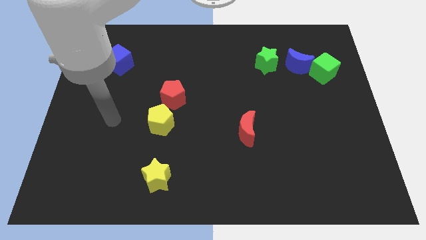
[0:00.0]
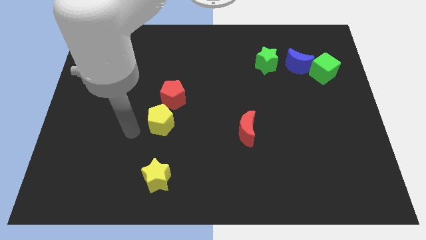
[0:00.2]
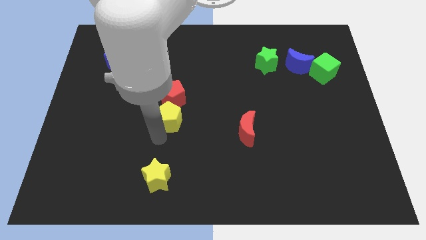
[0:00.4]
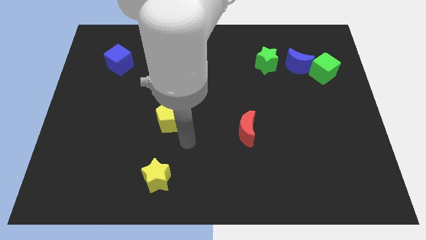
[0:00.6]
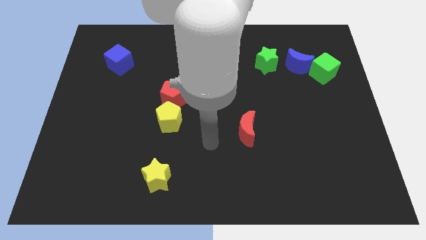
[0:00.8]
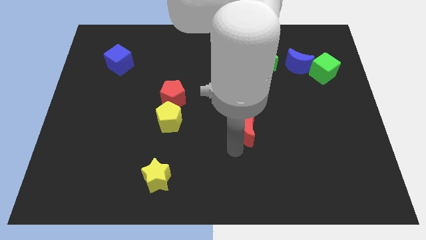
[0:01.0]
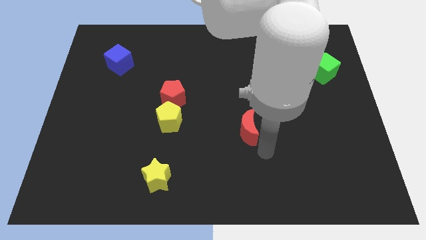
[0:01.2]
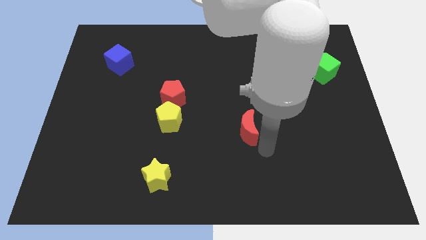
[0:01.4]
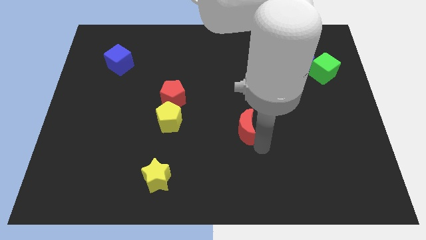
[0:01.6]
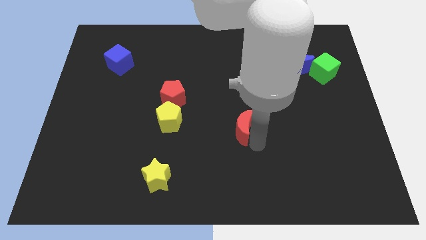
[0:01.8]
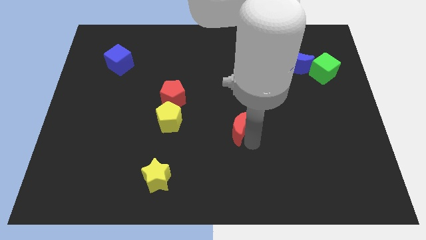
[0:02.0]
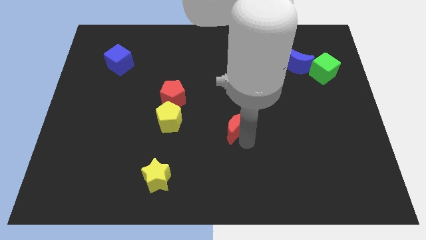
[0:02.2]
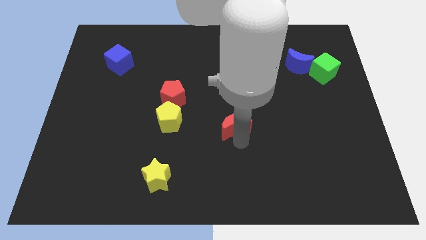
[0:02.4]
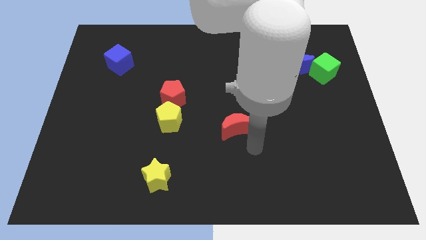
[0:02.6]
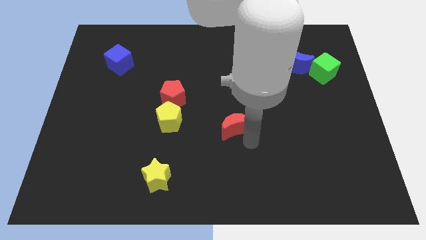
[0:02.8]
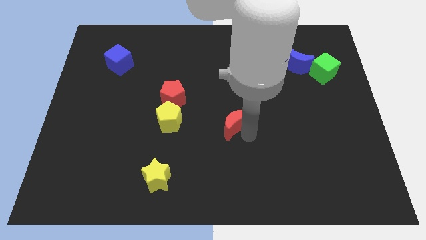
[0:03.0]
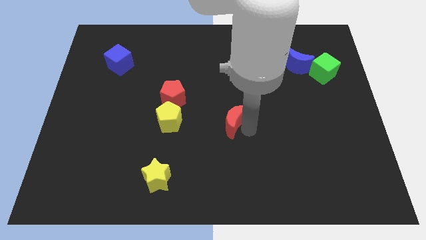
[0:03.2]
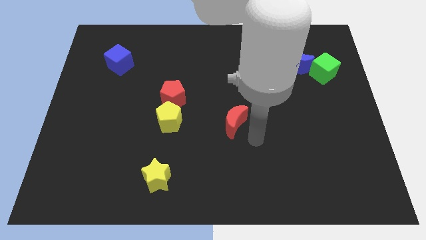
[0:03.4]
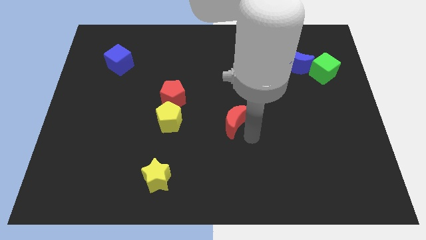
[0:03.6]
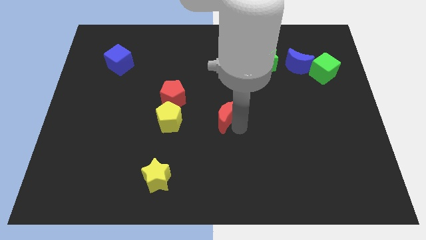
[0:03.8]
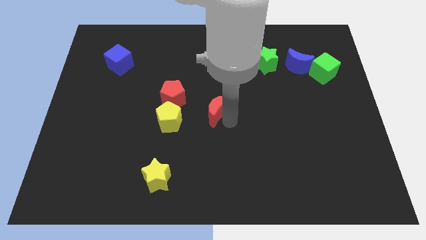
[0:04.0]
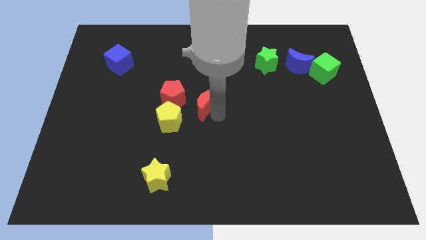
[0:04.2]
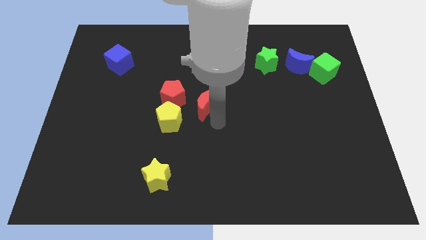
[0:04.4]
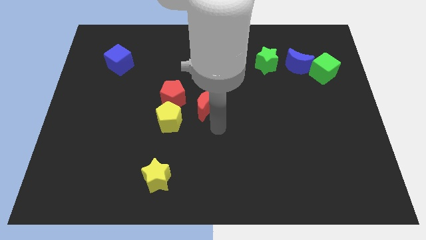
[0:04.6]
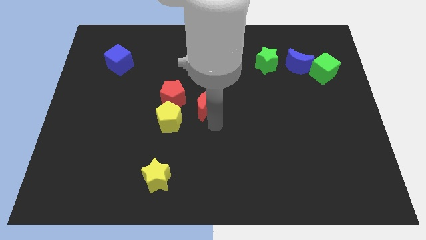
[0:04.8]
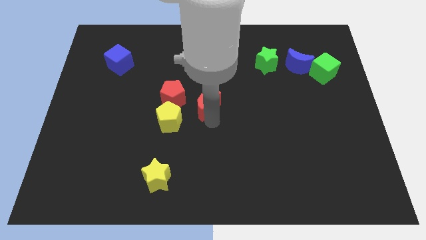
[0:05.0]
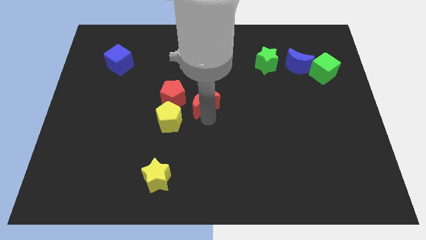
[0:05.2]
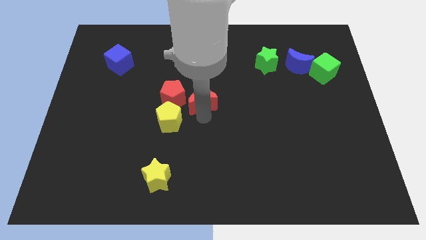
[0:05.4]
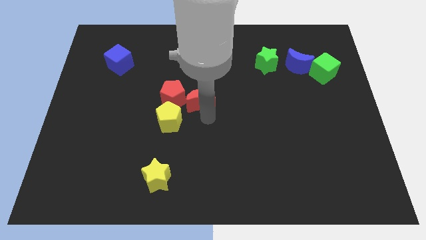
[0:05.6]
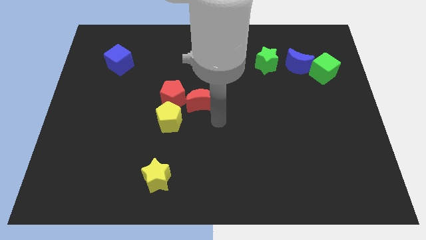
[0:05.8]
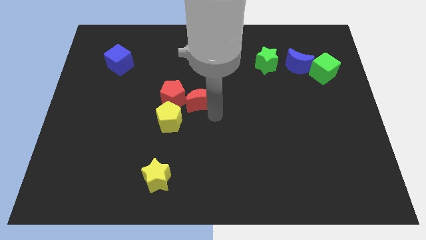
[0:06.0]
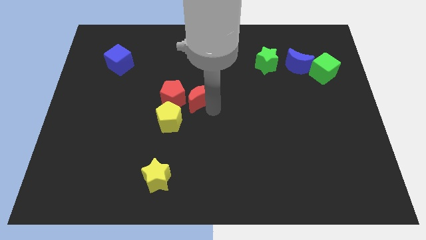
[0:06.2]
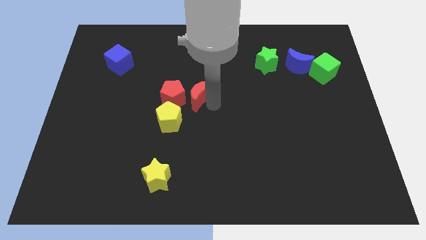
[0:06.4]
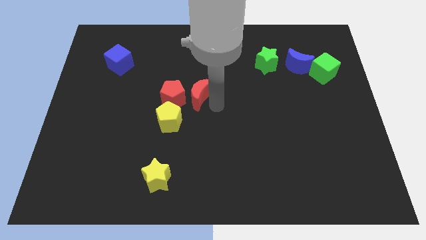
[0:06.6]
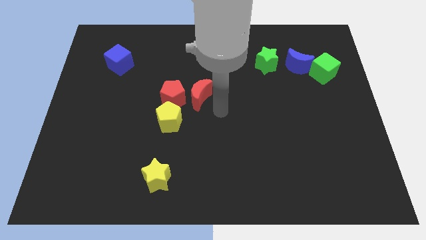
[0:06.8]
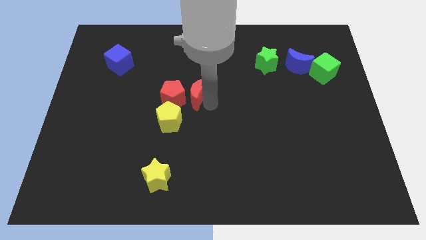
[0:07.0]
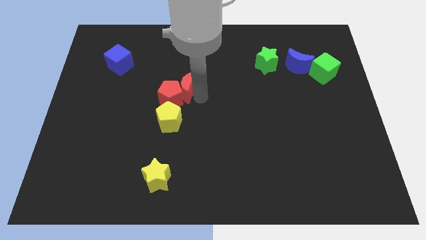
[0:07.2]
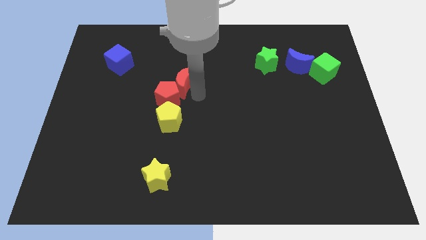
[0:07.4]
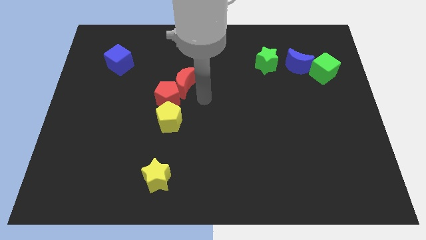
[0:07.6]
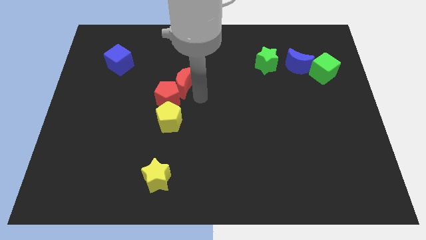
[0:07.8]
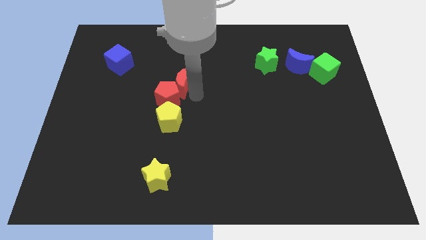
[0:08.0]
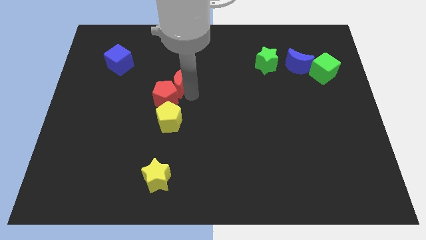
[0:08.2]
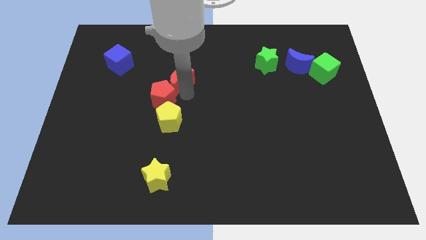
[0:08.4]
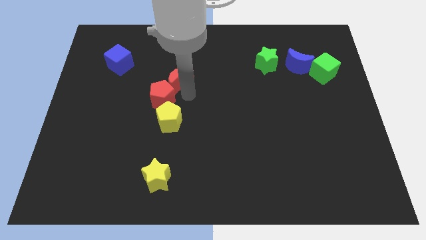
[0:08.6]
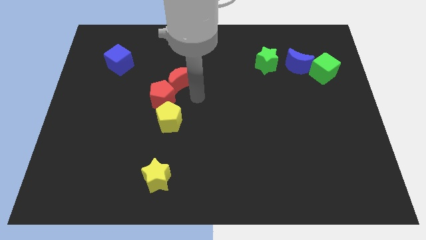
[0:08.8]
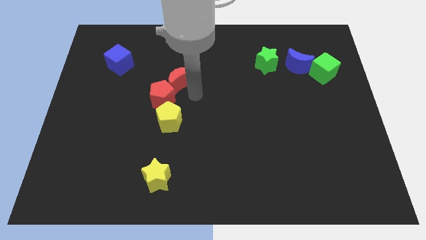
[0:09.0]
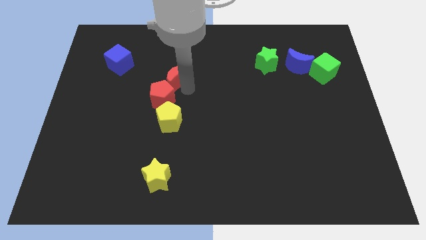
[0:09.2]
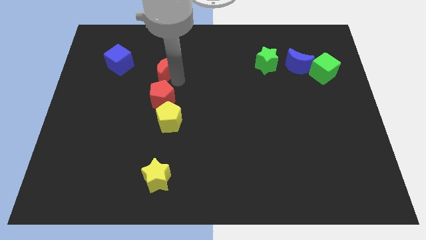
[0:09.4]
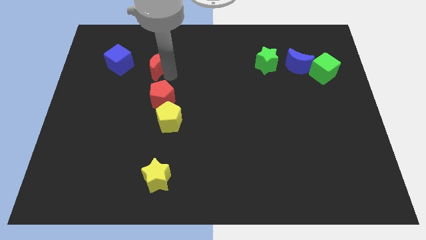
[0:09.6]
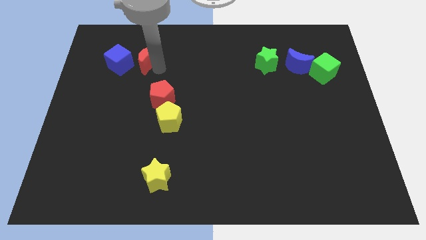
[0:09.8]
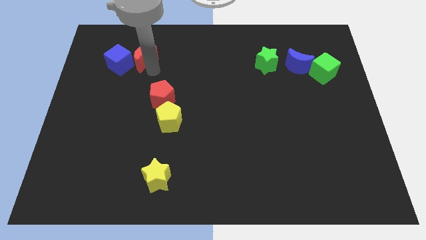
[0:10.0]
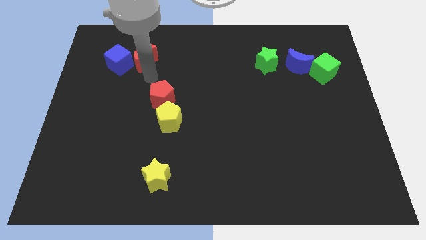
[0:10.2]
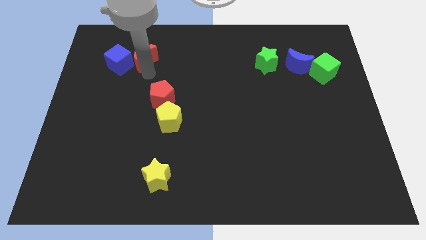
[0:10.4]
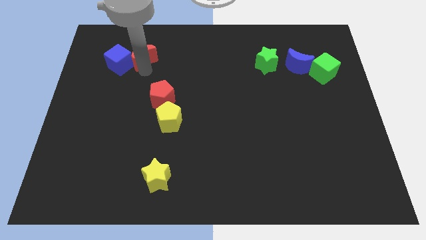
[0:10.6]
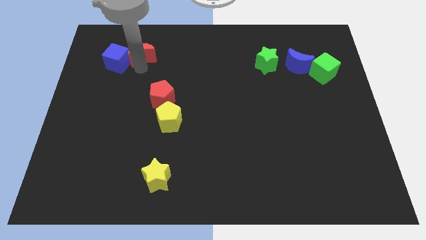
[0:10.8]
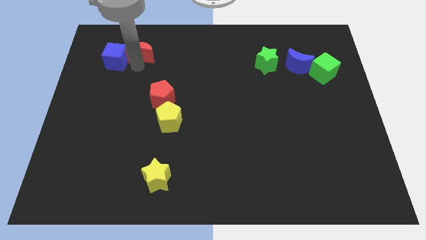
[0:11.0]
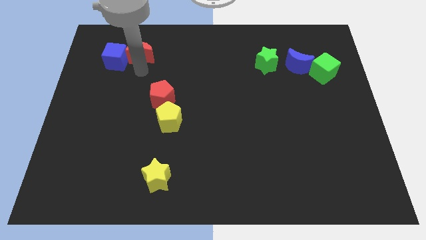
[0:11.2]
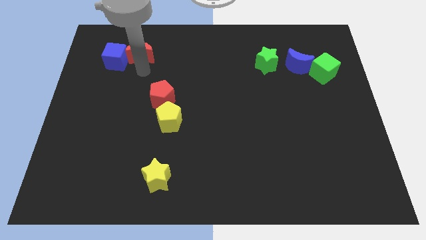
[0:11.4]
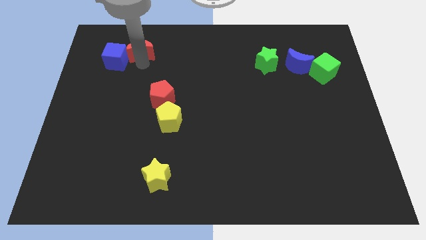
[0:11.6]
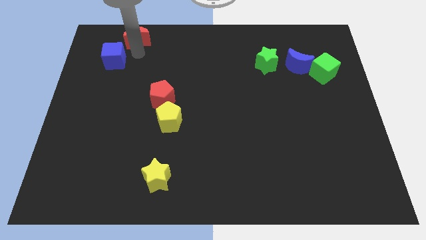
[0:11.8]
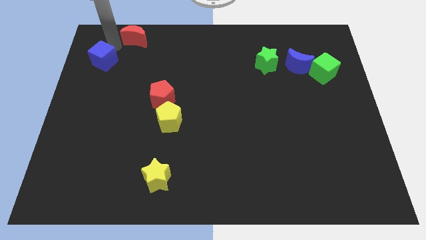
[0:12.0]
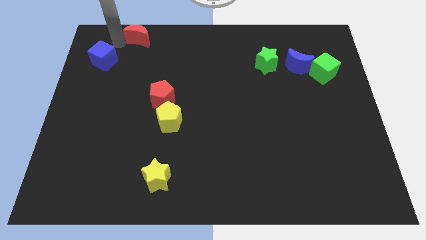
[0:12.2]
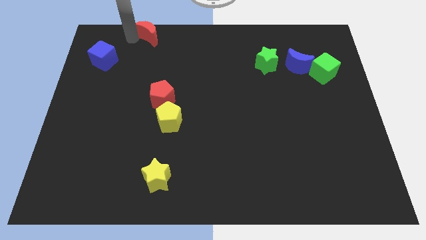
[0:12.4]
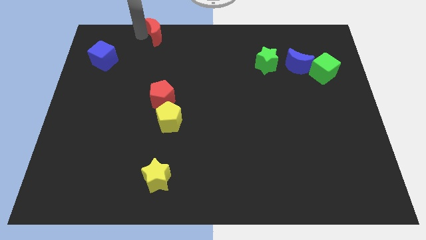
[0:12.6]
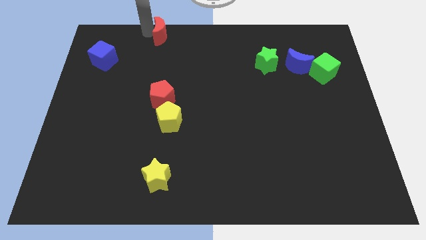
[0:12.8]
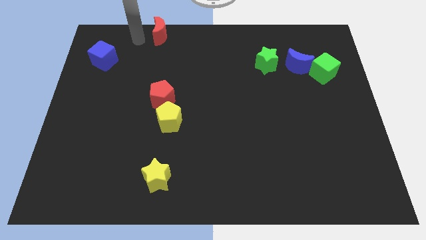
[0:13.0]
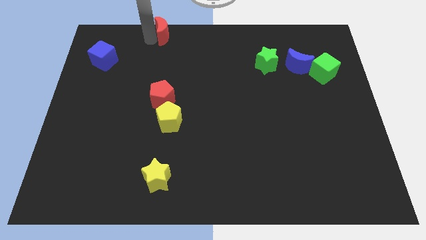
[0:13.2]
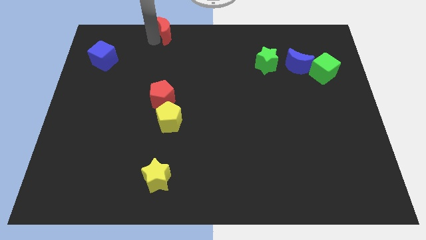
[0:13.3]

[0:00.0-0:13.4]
push the red moon to the top side

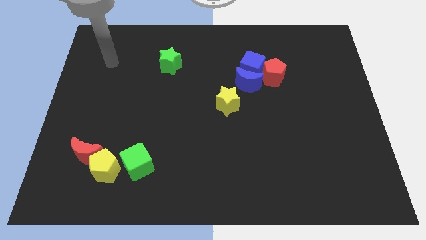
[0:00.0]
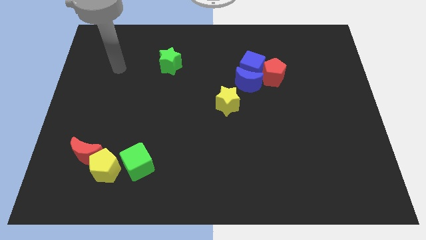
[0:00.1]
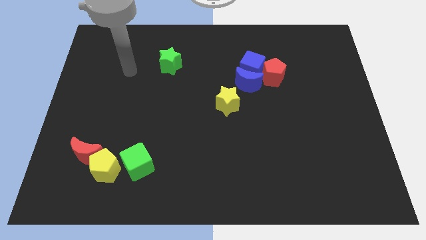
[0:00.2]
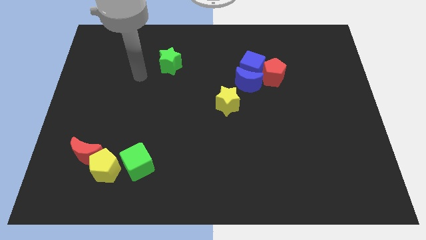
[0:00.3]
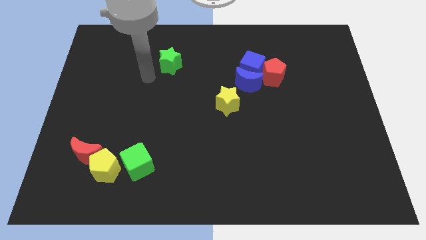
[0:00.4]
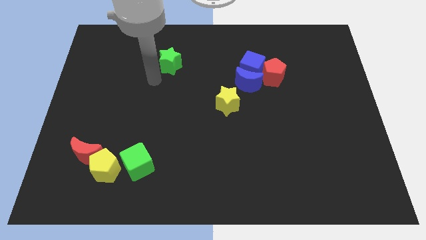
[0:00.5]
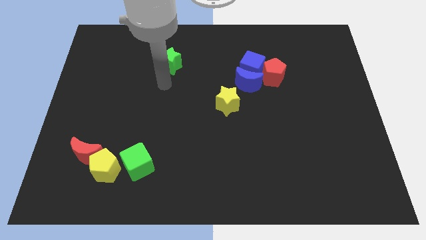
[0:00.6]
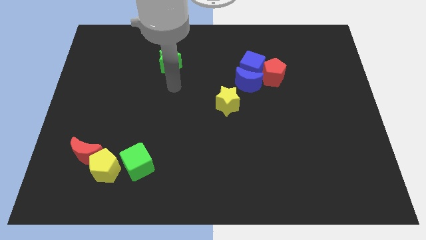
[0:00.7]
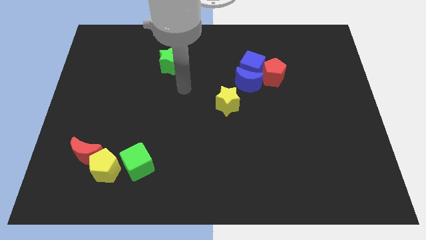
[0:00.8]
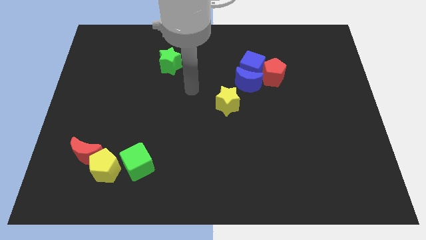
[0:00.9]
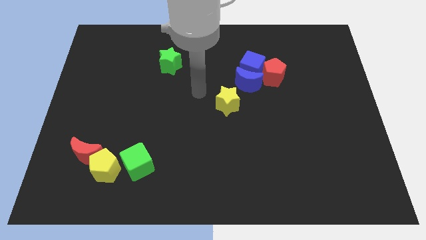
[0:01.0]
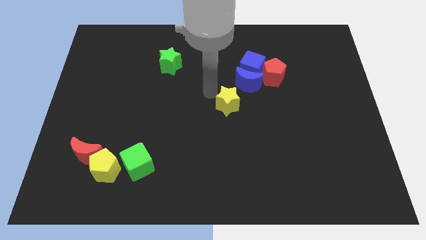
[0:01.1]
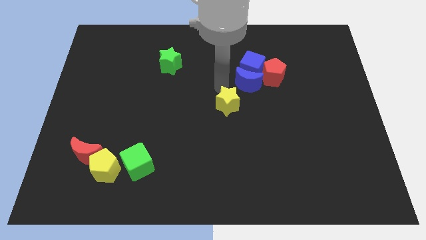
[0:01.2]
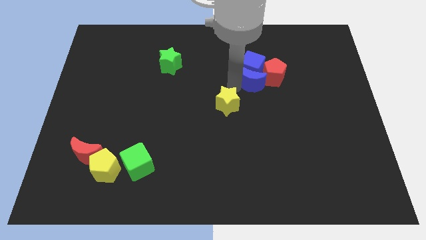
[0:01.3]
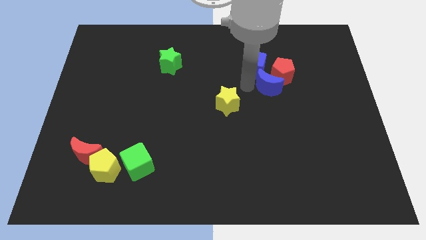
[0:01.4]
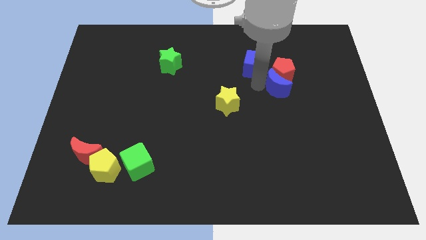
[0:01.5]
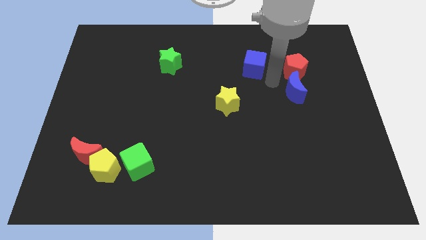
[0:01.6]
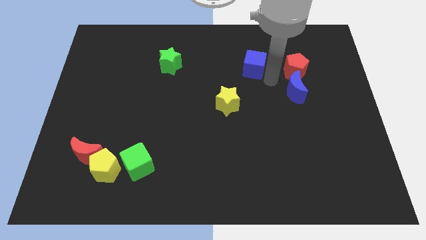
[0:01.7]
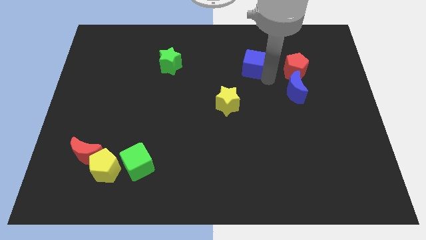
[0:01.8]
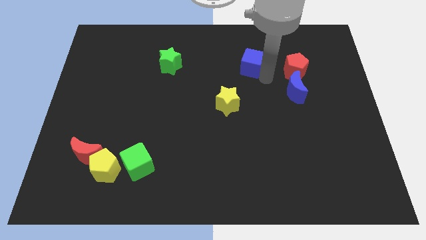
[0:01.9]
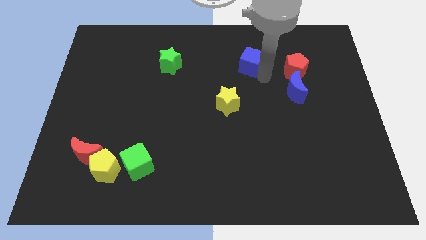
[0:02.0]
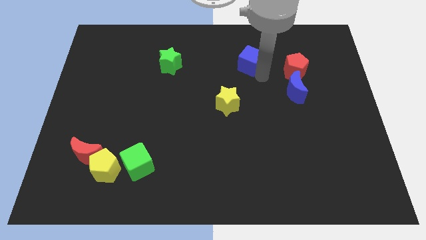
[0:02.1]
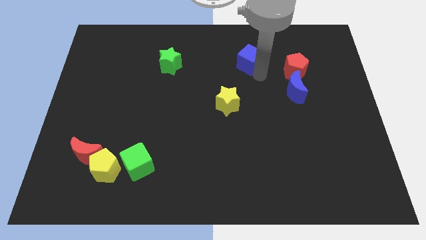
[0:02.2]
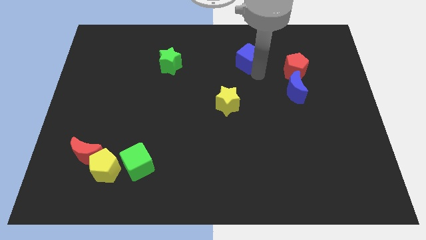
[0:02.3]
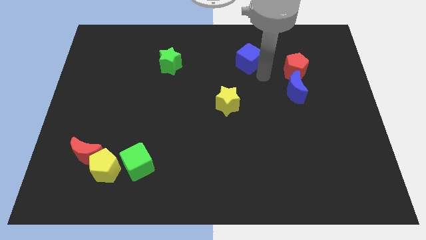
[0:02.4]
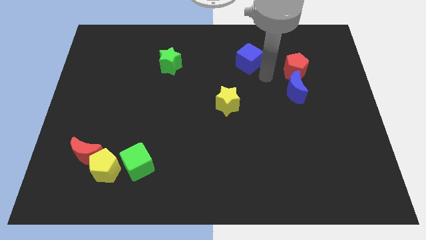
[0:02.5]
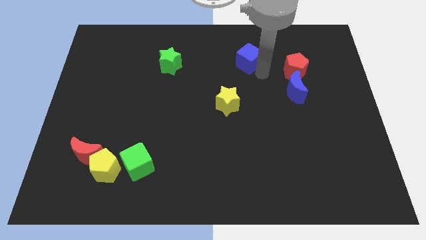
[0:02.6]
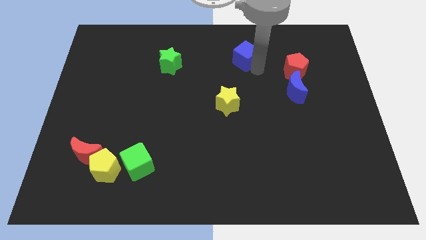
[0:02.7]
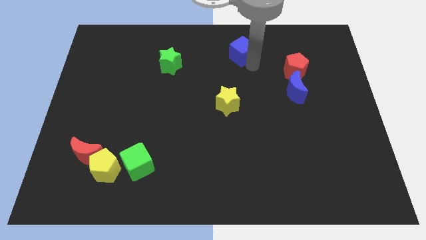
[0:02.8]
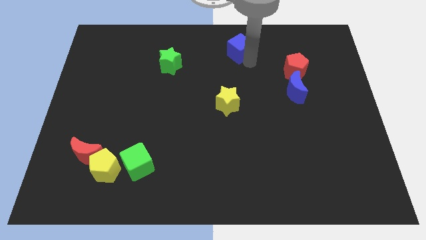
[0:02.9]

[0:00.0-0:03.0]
push the blue cube to the top side
